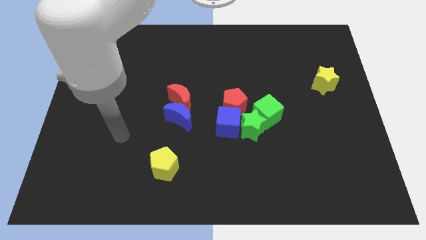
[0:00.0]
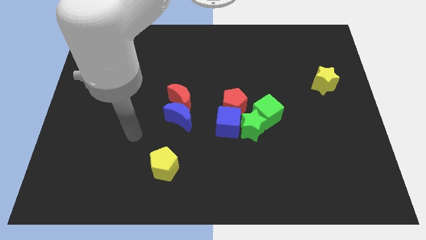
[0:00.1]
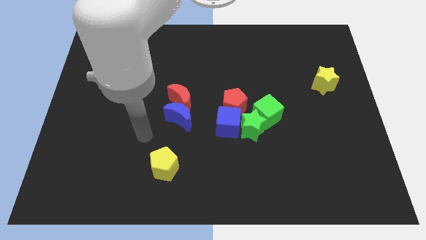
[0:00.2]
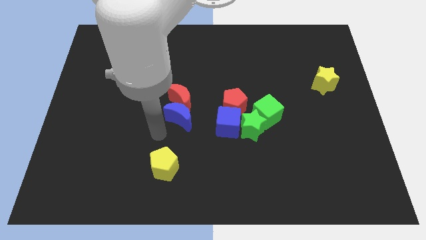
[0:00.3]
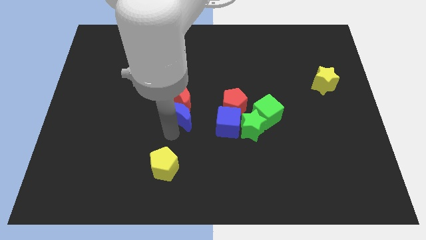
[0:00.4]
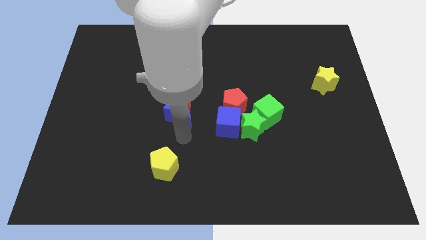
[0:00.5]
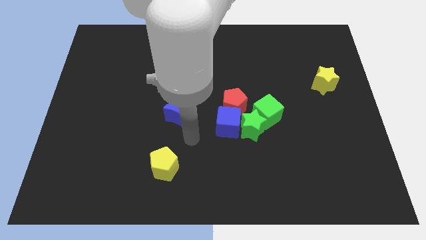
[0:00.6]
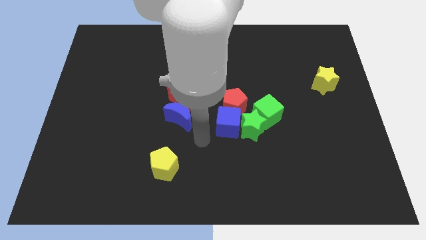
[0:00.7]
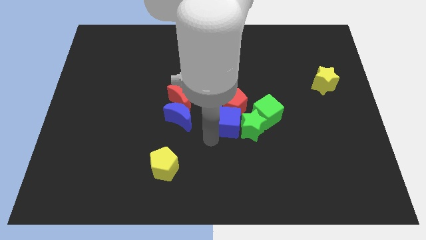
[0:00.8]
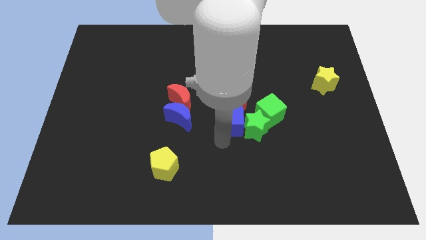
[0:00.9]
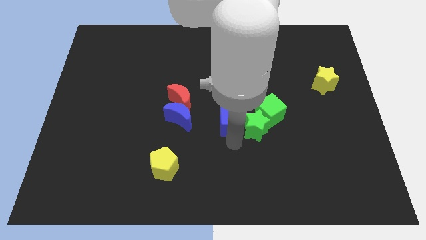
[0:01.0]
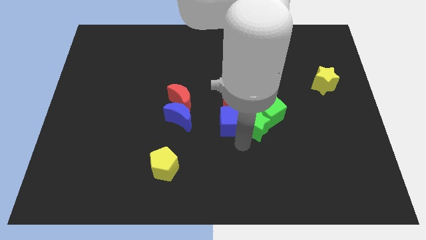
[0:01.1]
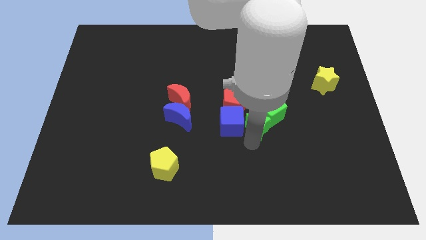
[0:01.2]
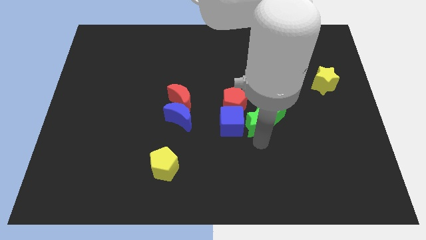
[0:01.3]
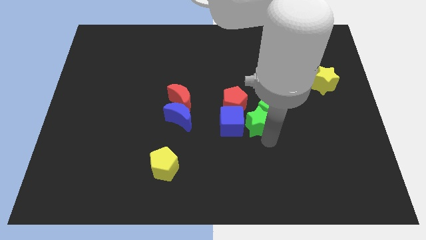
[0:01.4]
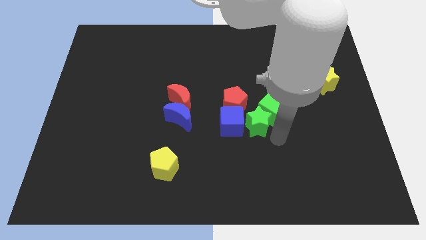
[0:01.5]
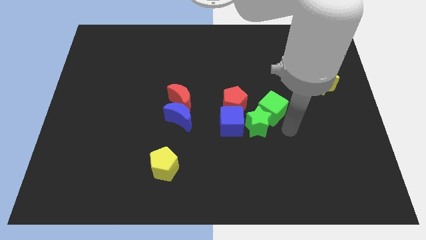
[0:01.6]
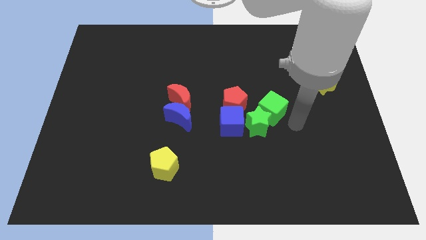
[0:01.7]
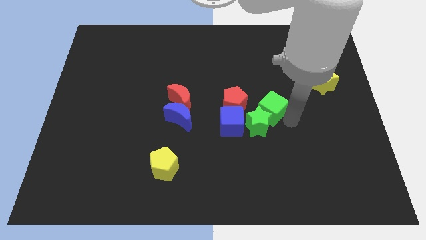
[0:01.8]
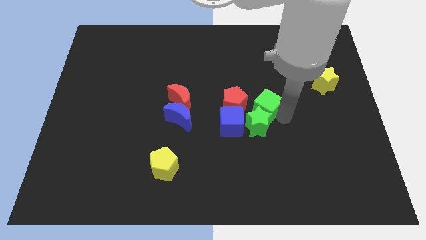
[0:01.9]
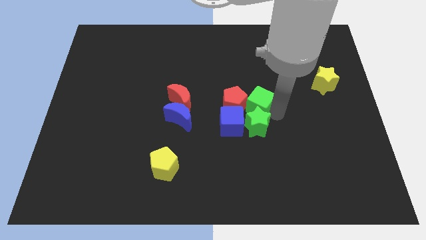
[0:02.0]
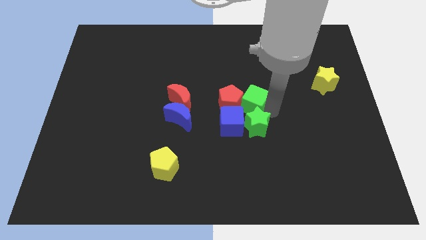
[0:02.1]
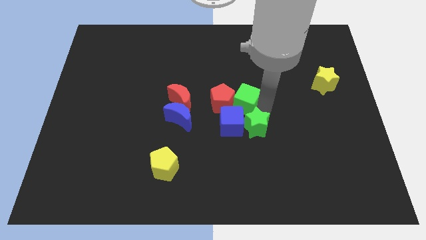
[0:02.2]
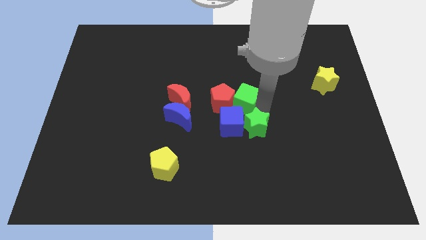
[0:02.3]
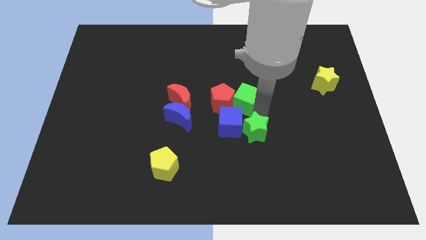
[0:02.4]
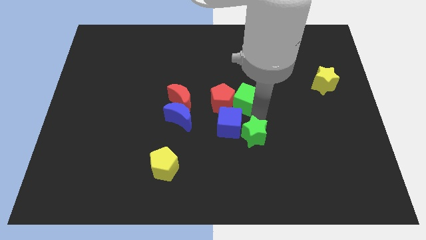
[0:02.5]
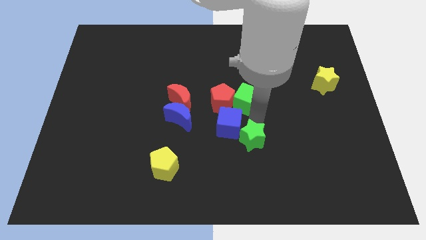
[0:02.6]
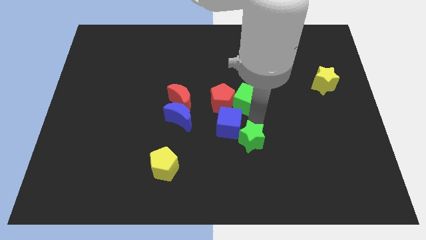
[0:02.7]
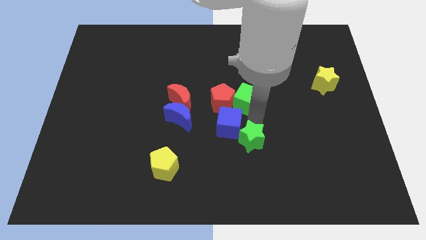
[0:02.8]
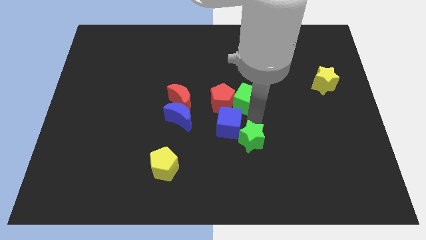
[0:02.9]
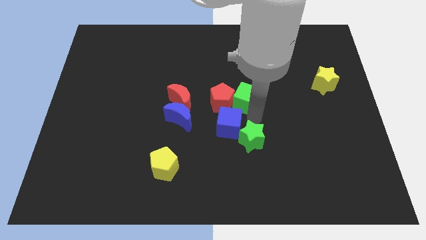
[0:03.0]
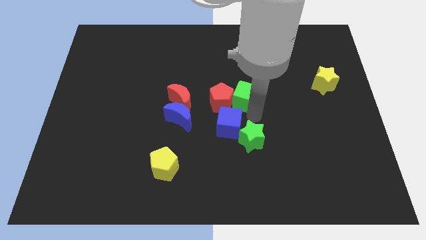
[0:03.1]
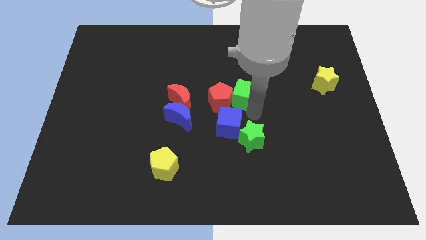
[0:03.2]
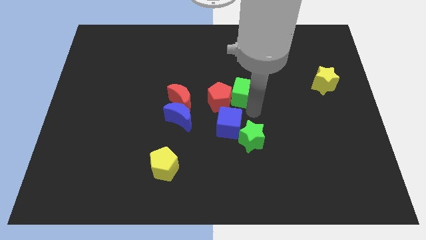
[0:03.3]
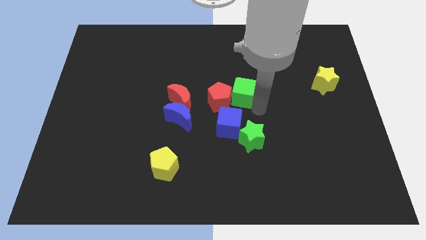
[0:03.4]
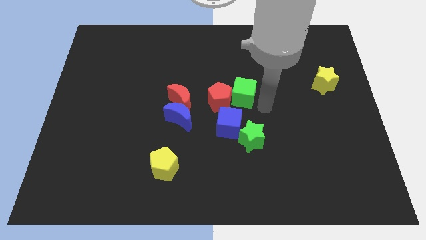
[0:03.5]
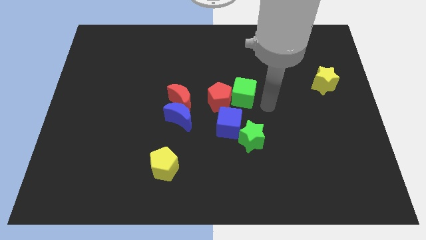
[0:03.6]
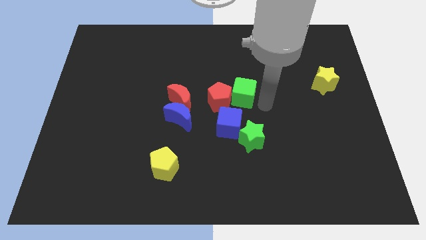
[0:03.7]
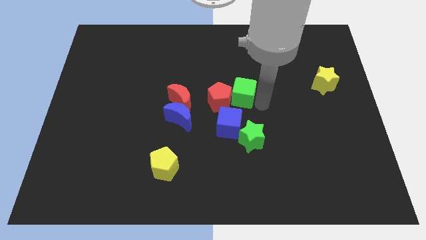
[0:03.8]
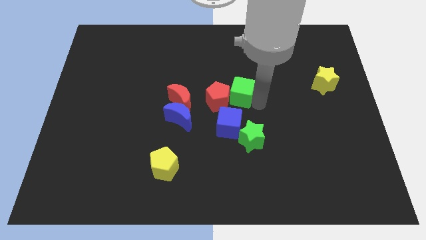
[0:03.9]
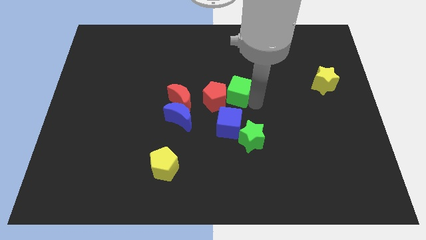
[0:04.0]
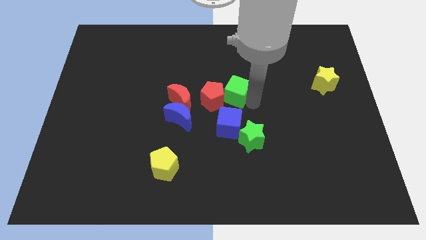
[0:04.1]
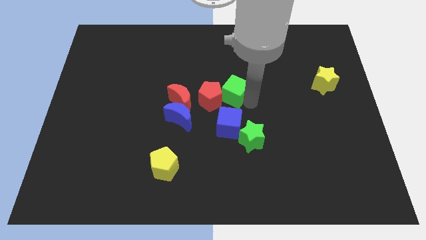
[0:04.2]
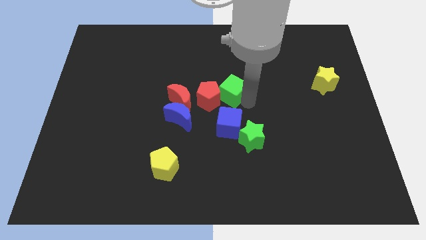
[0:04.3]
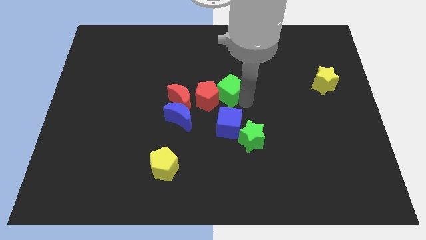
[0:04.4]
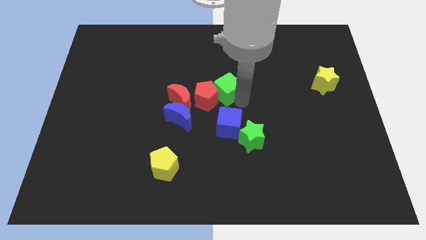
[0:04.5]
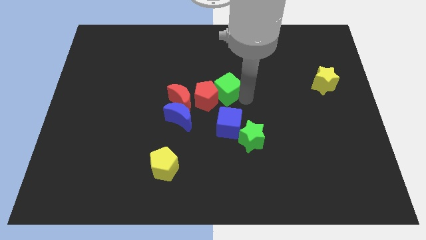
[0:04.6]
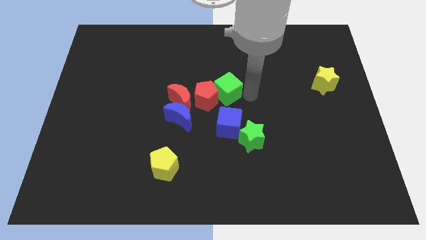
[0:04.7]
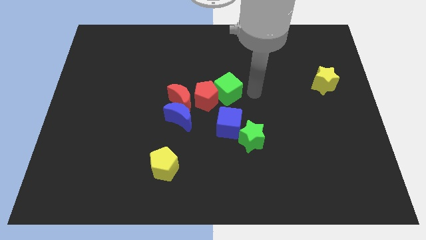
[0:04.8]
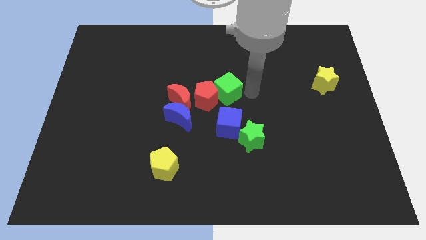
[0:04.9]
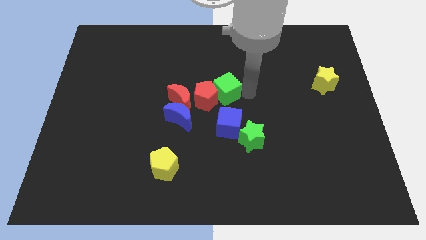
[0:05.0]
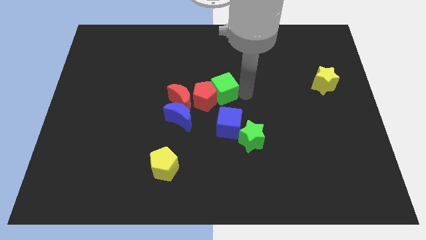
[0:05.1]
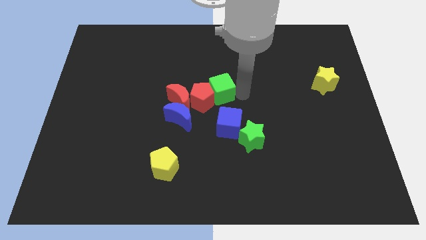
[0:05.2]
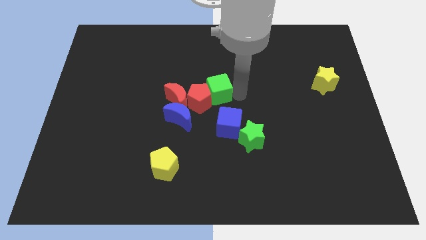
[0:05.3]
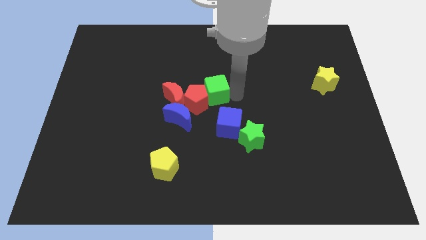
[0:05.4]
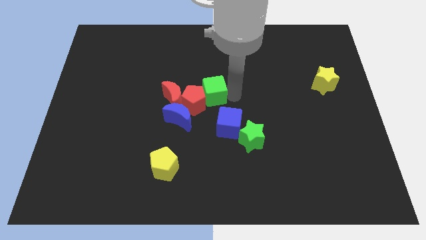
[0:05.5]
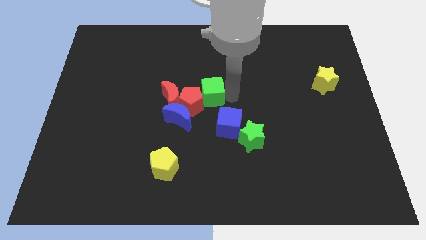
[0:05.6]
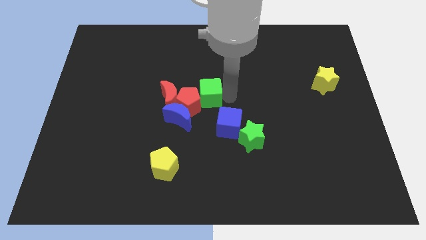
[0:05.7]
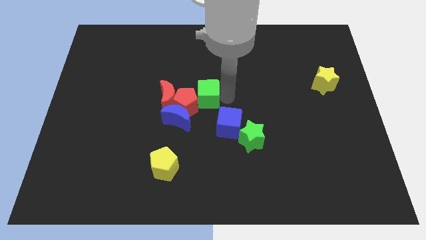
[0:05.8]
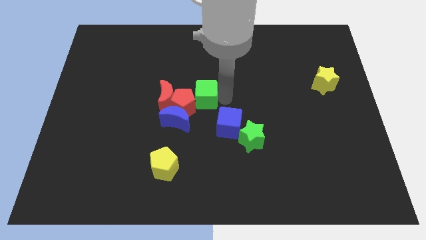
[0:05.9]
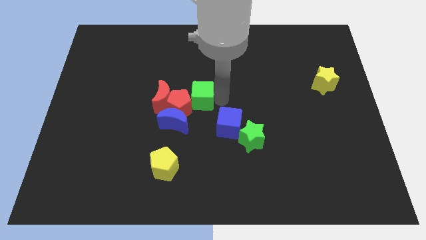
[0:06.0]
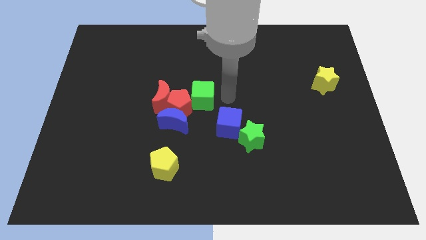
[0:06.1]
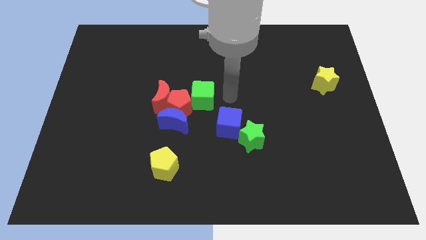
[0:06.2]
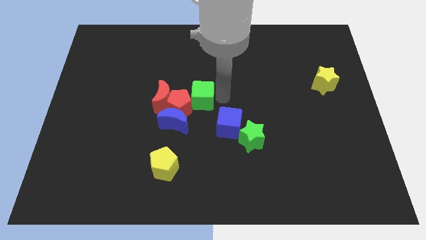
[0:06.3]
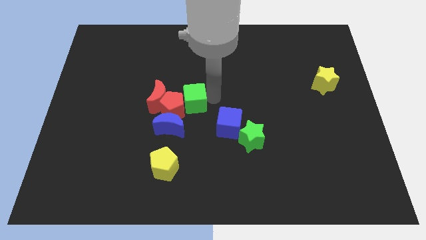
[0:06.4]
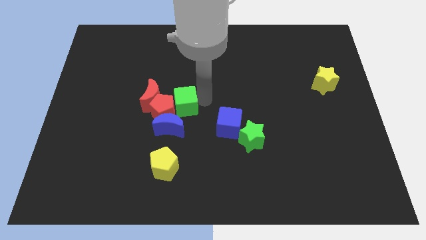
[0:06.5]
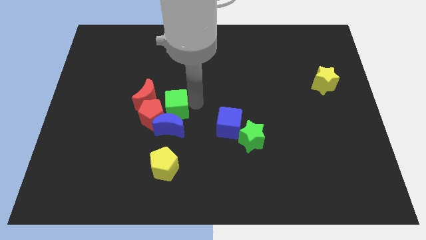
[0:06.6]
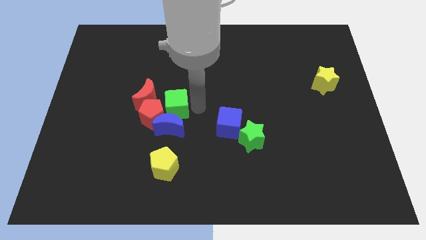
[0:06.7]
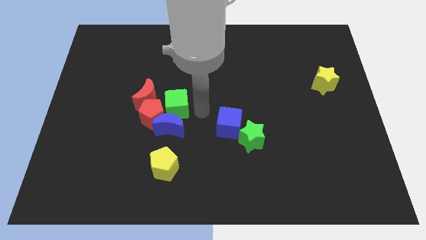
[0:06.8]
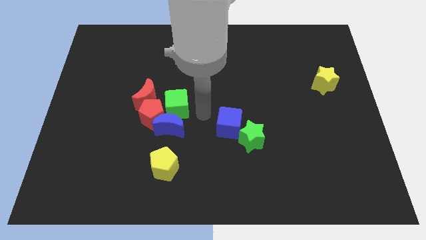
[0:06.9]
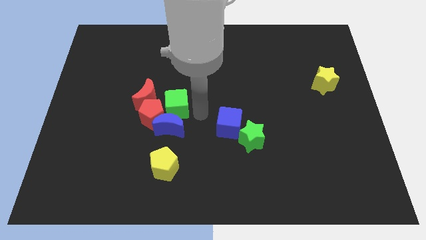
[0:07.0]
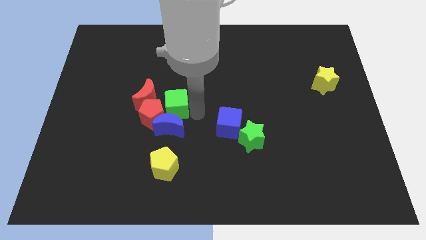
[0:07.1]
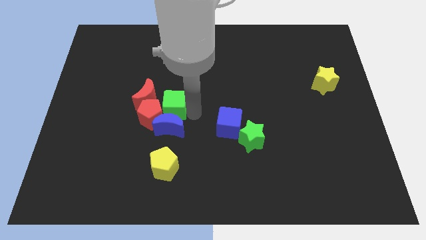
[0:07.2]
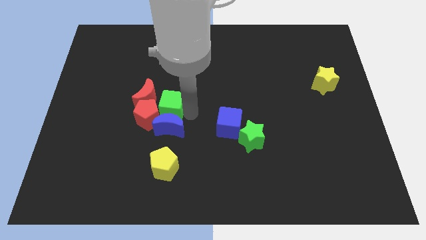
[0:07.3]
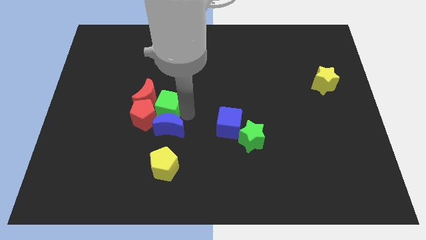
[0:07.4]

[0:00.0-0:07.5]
slide the green cube towards the red moon

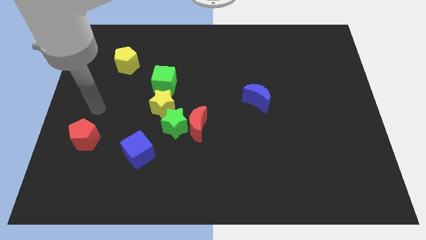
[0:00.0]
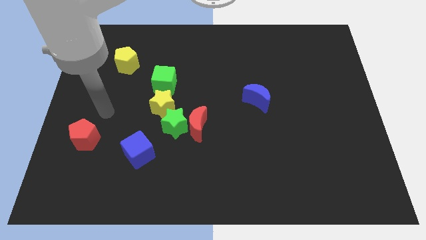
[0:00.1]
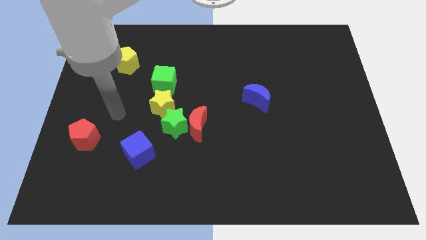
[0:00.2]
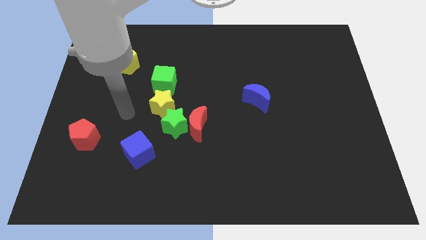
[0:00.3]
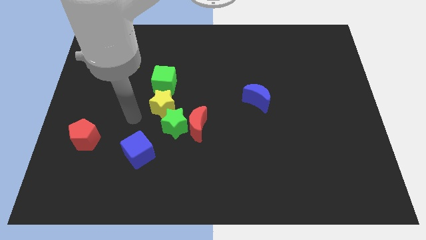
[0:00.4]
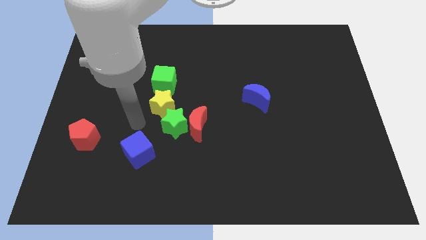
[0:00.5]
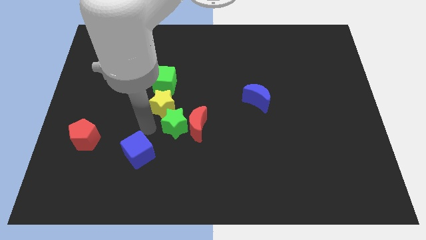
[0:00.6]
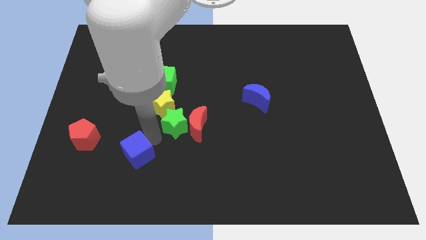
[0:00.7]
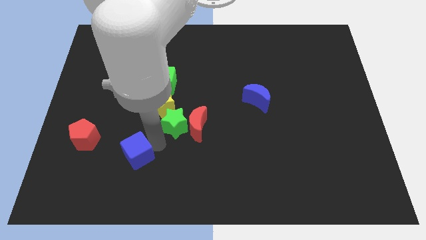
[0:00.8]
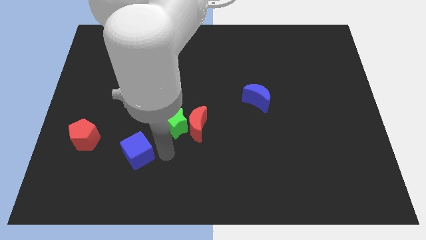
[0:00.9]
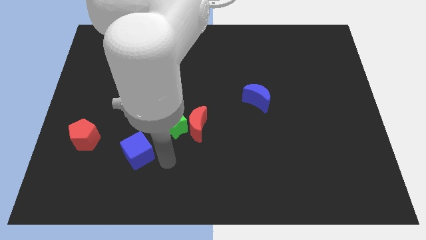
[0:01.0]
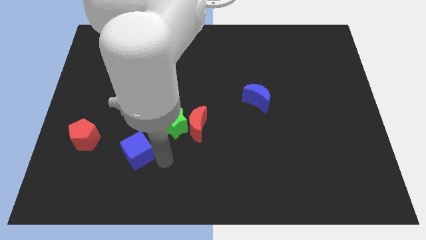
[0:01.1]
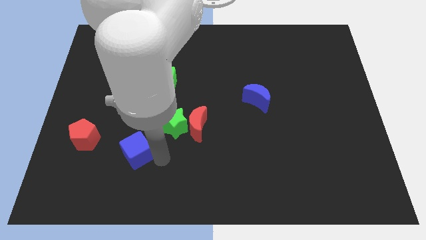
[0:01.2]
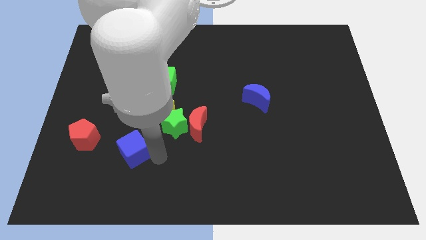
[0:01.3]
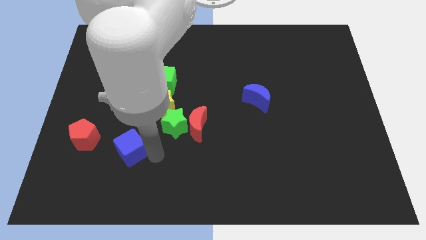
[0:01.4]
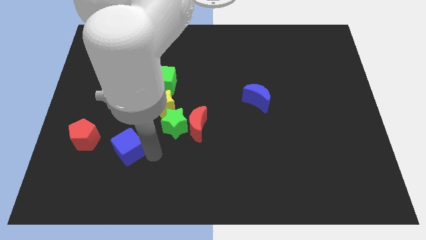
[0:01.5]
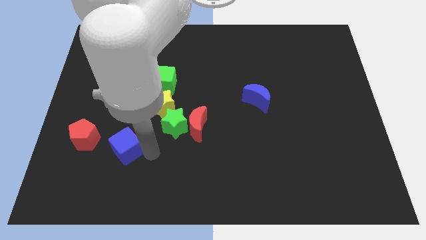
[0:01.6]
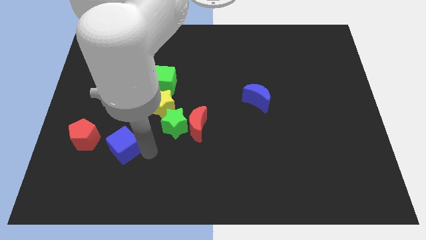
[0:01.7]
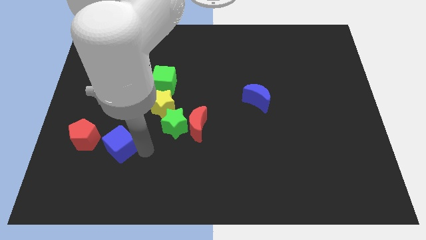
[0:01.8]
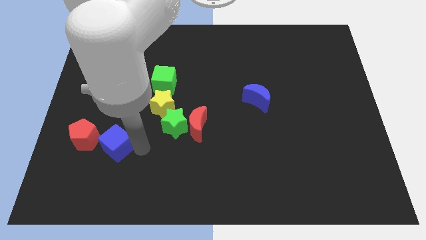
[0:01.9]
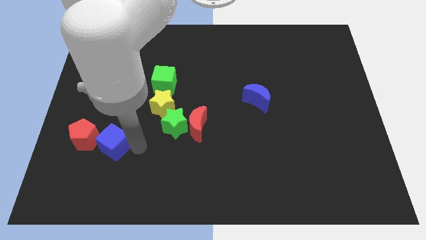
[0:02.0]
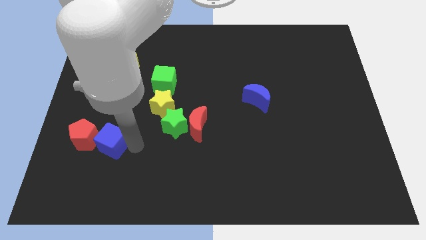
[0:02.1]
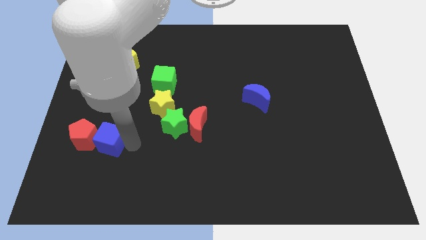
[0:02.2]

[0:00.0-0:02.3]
move the blue cube next to the red pentagon
